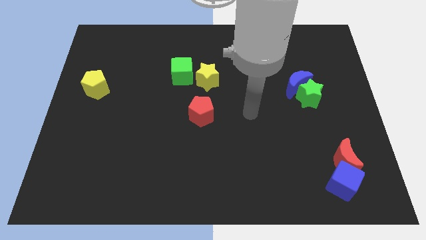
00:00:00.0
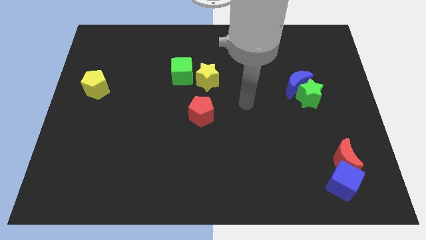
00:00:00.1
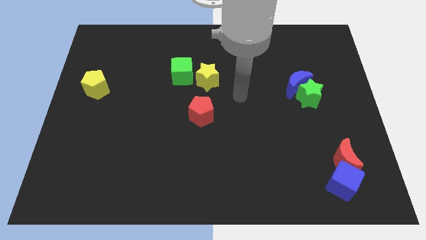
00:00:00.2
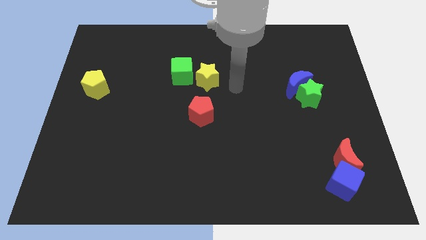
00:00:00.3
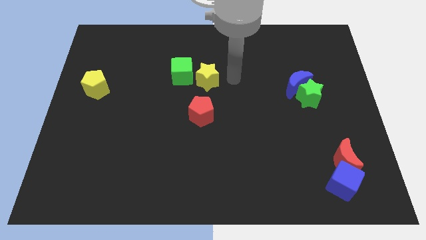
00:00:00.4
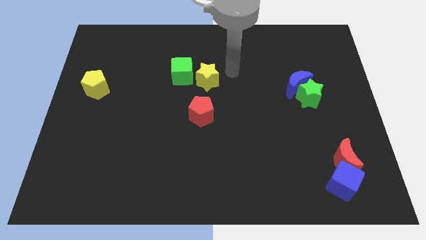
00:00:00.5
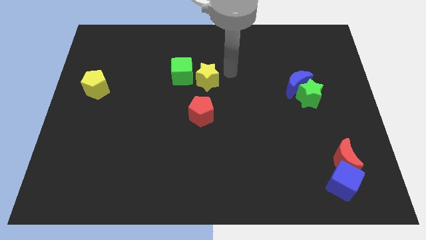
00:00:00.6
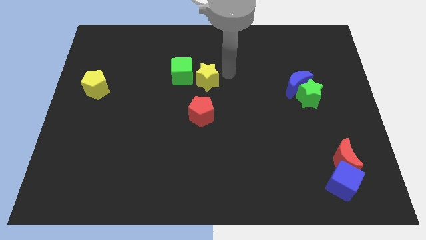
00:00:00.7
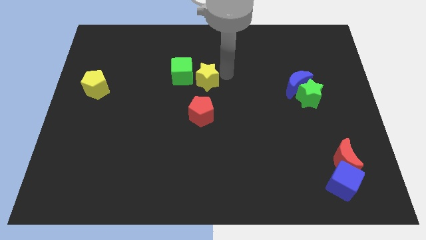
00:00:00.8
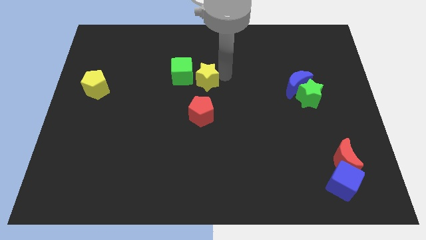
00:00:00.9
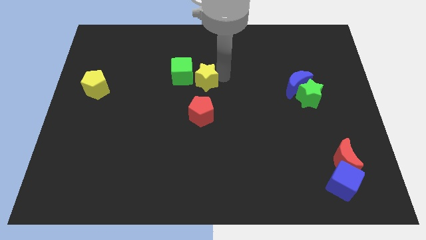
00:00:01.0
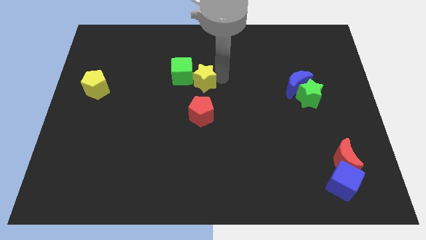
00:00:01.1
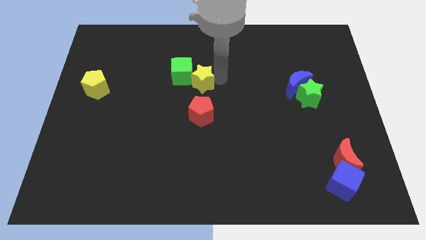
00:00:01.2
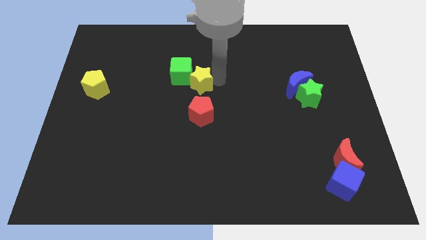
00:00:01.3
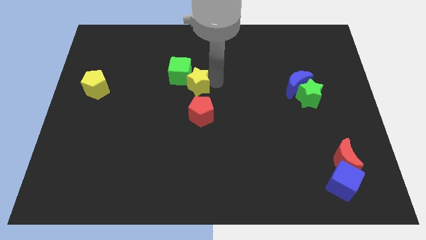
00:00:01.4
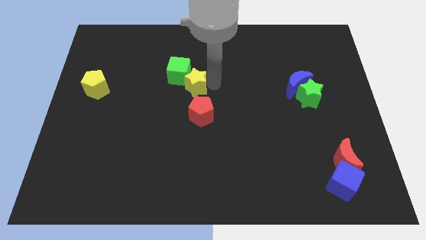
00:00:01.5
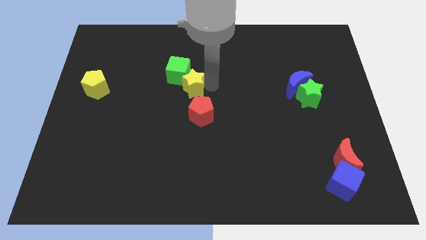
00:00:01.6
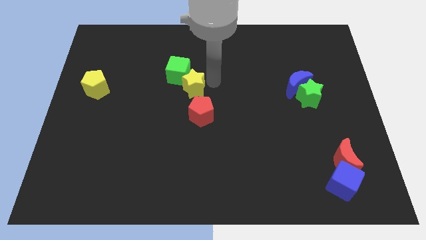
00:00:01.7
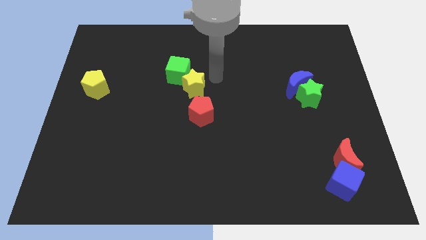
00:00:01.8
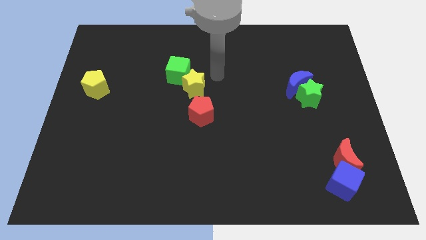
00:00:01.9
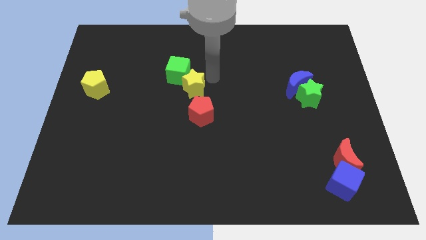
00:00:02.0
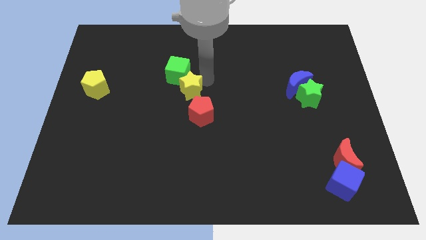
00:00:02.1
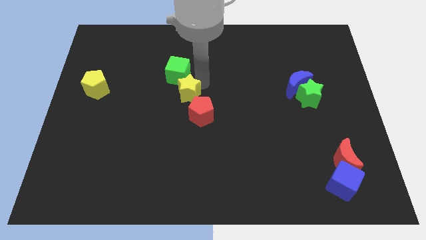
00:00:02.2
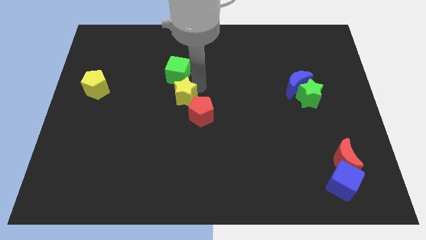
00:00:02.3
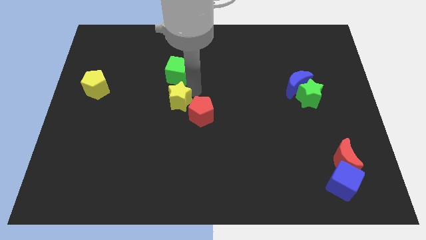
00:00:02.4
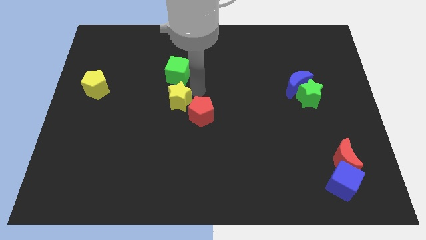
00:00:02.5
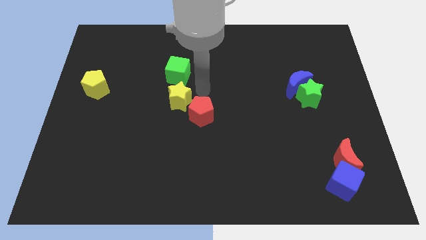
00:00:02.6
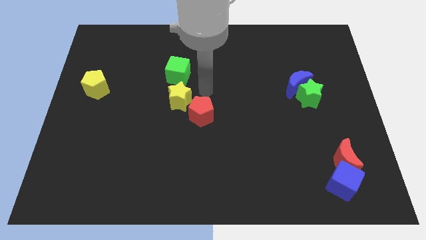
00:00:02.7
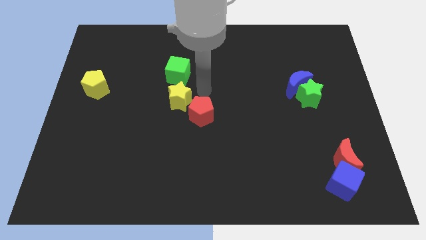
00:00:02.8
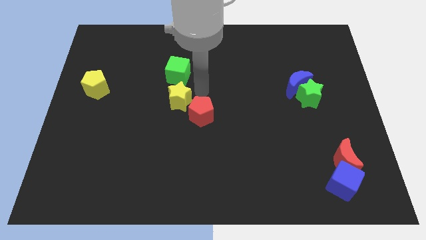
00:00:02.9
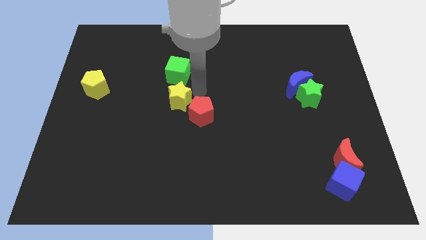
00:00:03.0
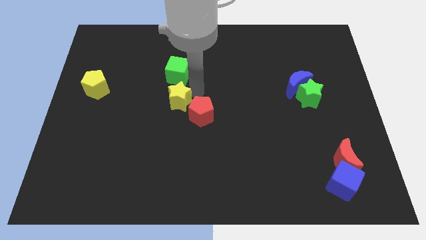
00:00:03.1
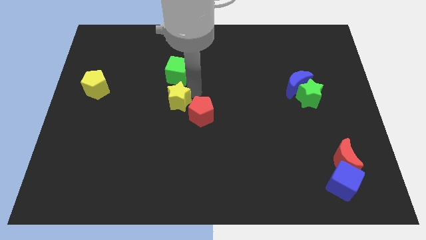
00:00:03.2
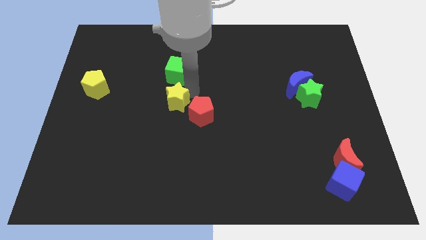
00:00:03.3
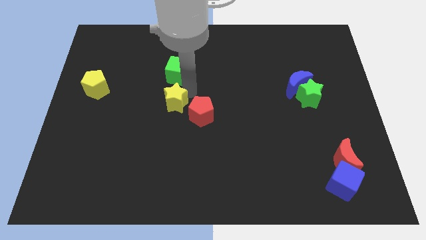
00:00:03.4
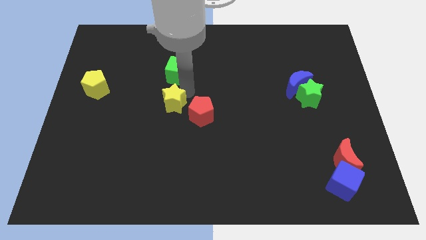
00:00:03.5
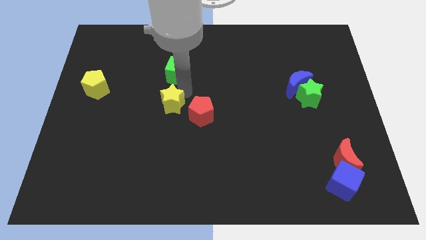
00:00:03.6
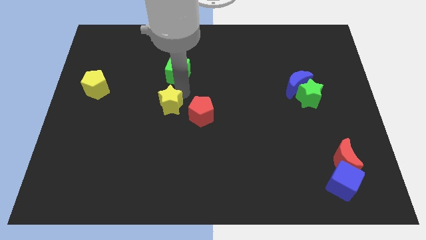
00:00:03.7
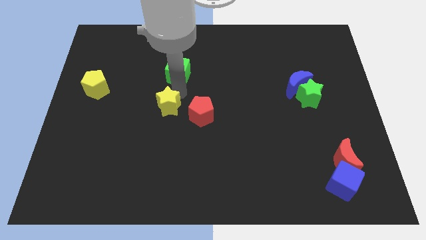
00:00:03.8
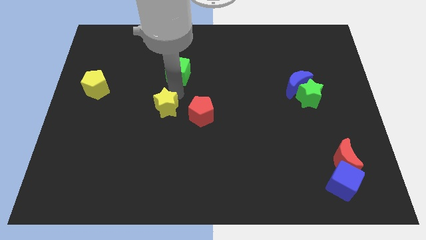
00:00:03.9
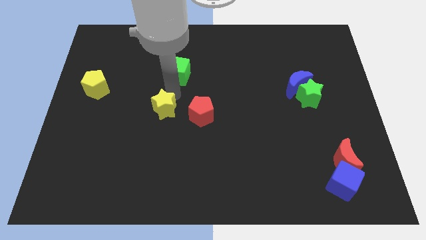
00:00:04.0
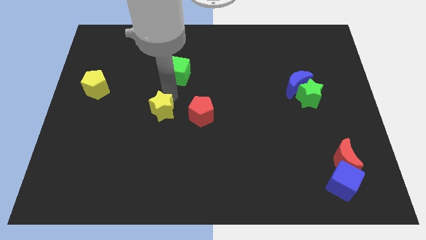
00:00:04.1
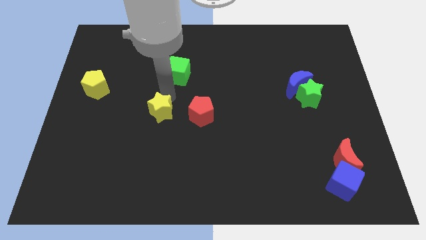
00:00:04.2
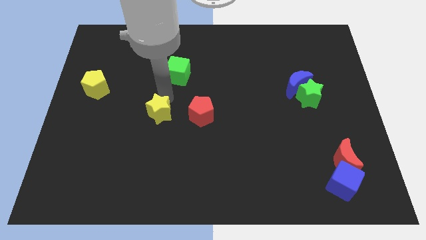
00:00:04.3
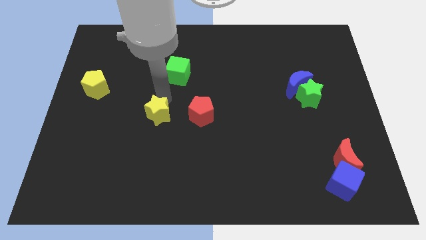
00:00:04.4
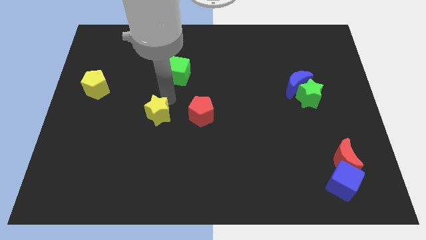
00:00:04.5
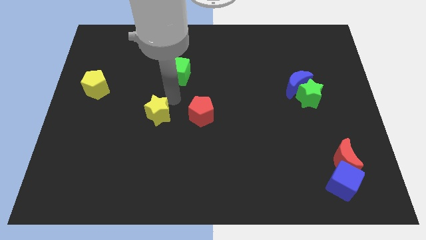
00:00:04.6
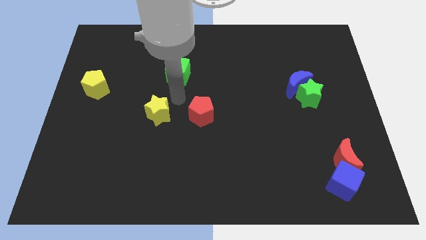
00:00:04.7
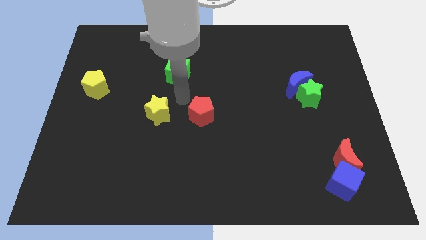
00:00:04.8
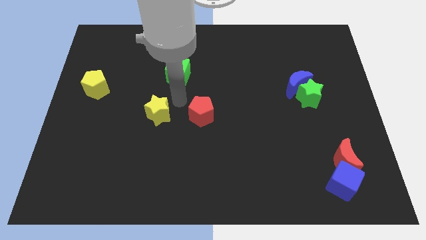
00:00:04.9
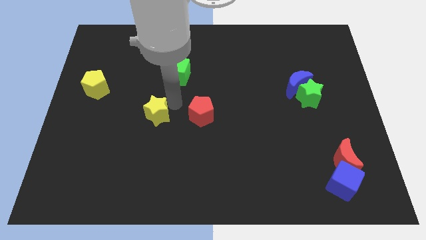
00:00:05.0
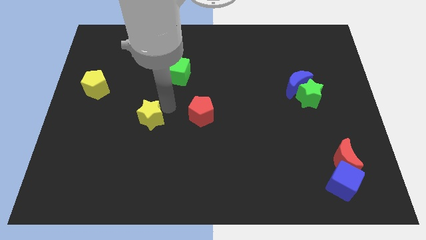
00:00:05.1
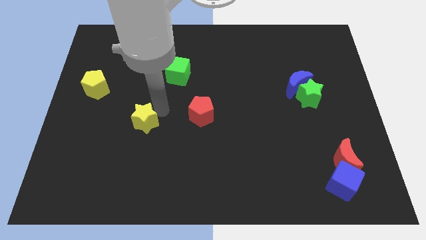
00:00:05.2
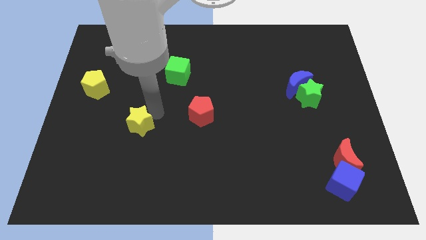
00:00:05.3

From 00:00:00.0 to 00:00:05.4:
slide the yellow star down and left

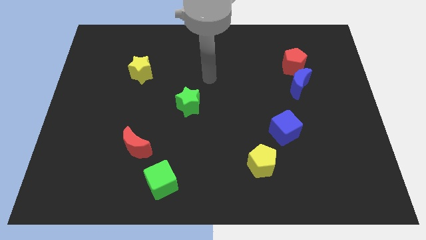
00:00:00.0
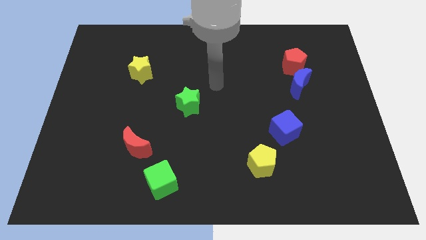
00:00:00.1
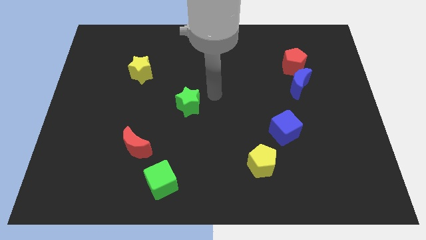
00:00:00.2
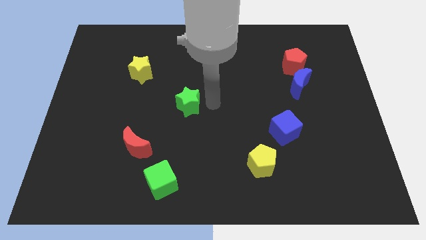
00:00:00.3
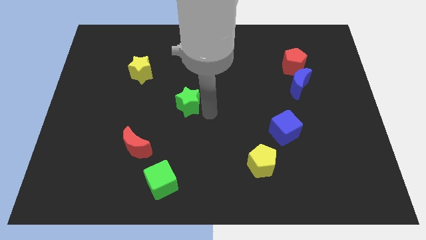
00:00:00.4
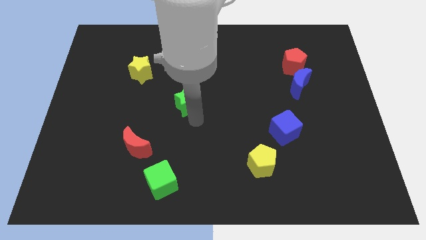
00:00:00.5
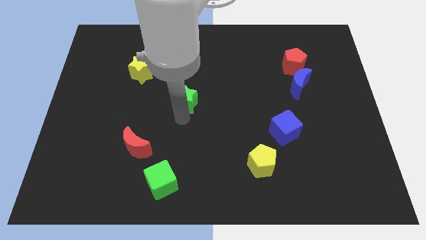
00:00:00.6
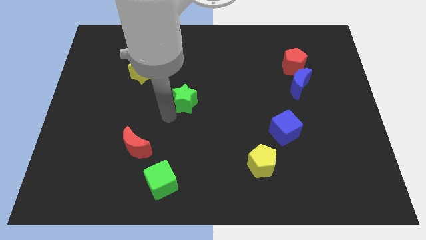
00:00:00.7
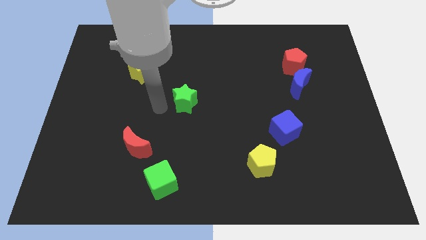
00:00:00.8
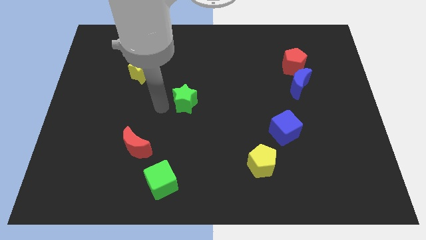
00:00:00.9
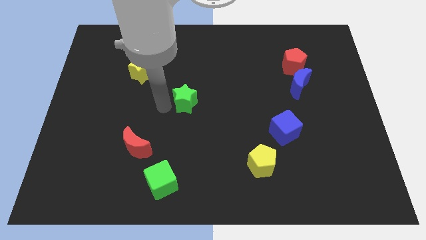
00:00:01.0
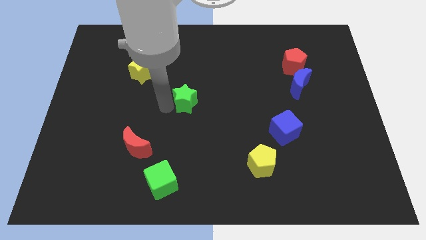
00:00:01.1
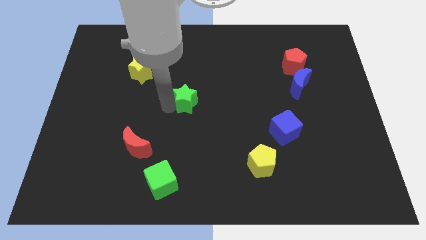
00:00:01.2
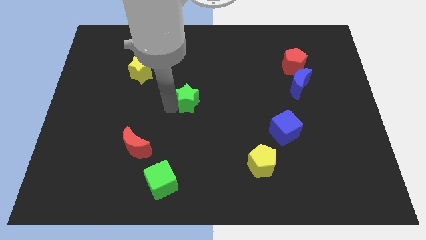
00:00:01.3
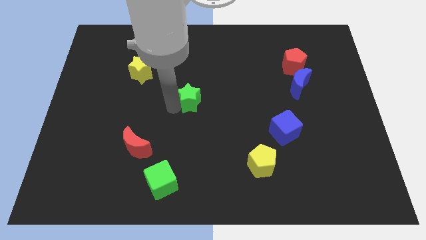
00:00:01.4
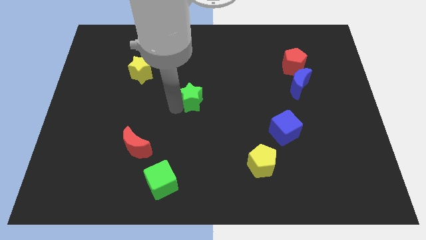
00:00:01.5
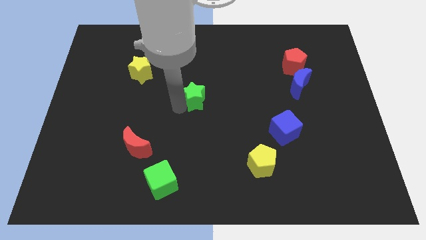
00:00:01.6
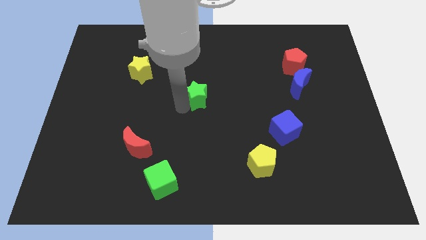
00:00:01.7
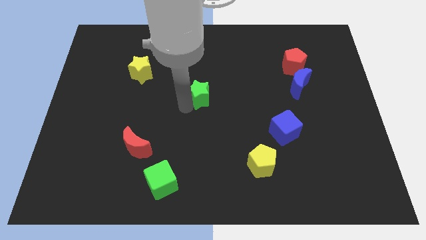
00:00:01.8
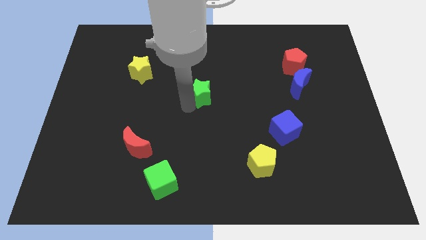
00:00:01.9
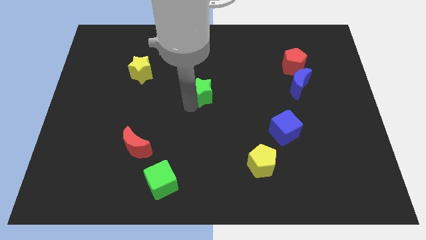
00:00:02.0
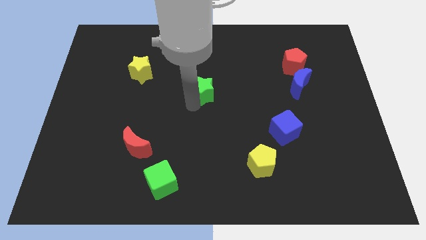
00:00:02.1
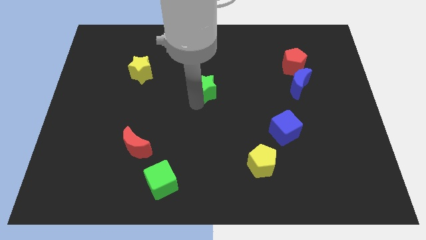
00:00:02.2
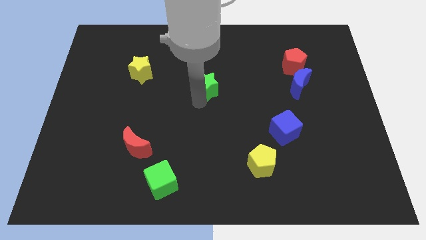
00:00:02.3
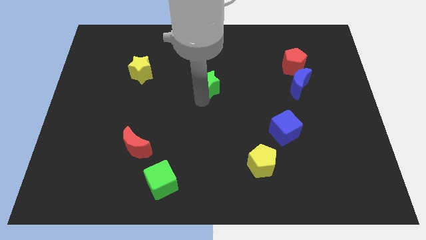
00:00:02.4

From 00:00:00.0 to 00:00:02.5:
push the green star up and right diagonally slightly

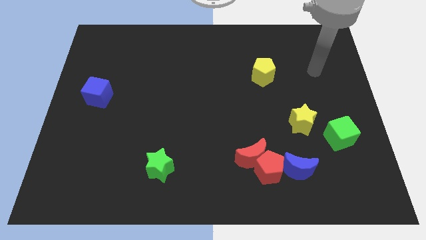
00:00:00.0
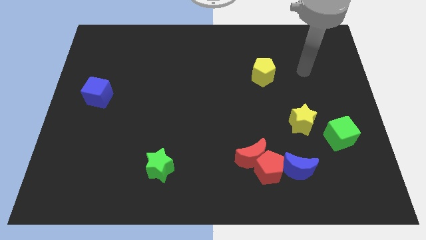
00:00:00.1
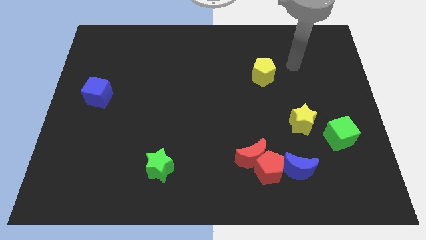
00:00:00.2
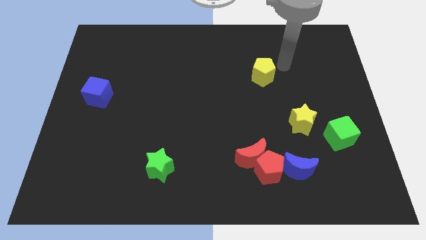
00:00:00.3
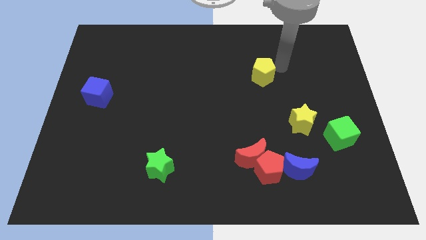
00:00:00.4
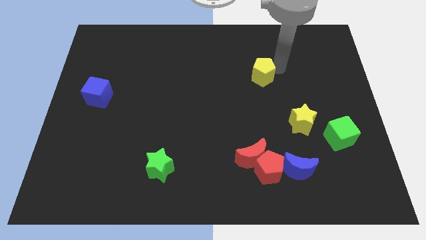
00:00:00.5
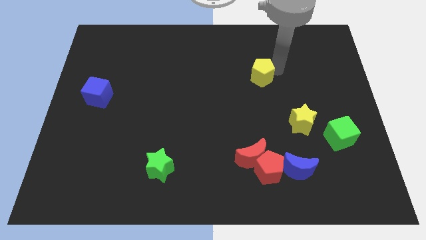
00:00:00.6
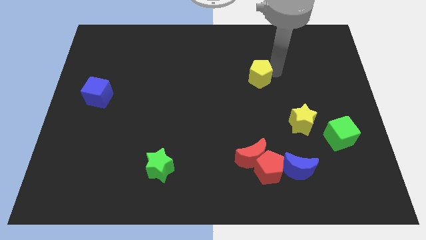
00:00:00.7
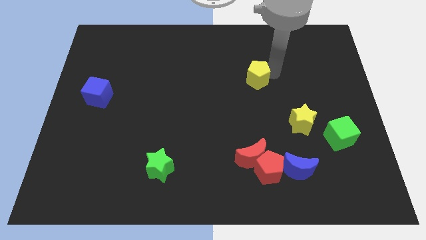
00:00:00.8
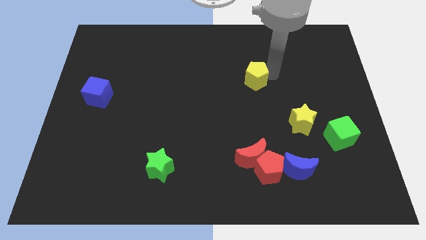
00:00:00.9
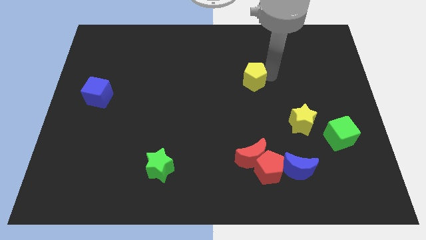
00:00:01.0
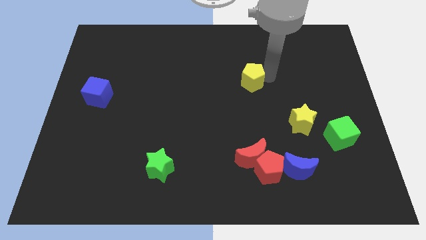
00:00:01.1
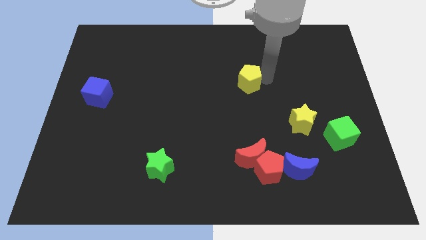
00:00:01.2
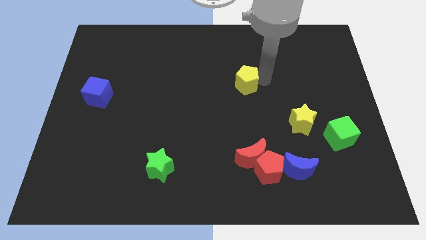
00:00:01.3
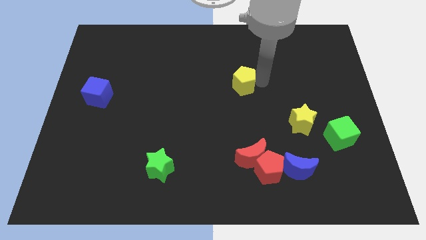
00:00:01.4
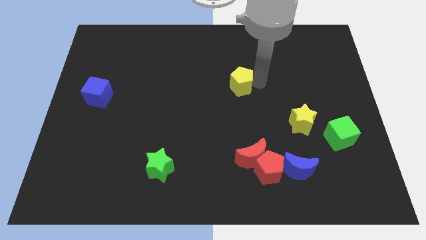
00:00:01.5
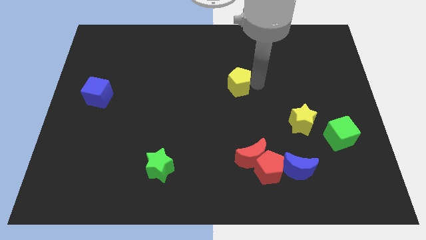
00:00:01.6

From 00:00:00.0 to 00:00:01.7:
slightly move the yellow pentagon down and left diagonally
